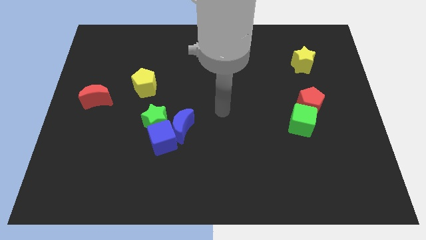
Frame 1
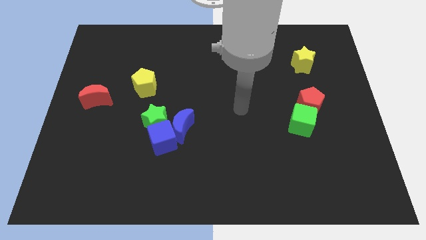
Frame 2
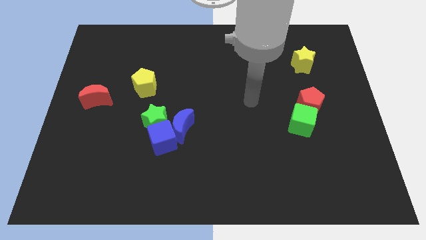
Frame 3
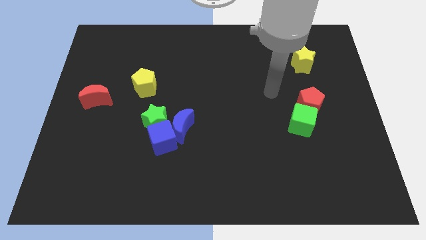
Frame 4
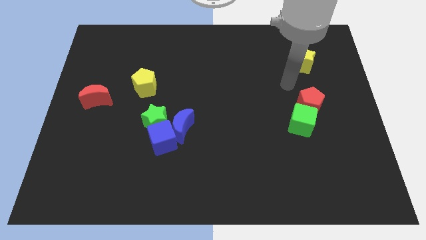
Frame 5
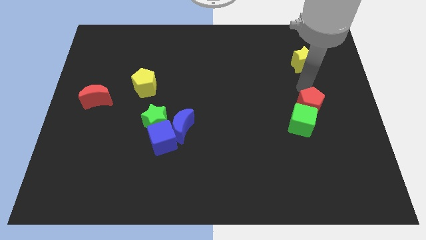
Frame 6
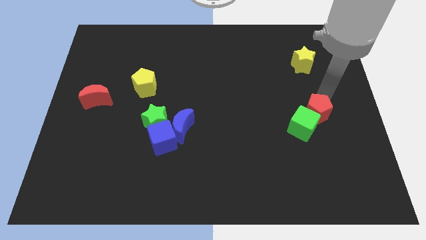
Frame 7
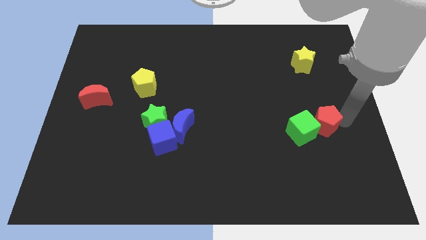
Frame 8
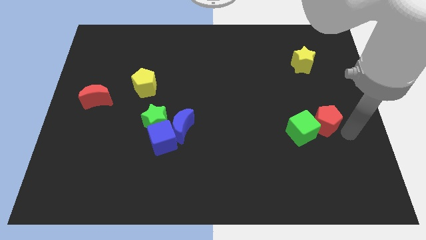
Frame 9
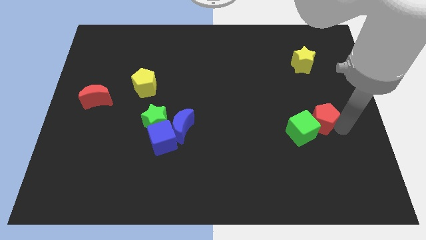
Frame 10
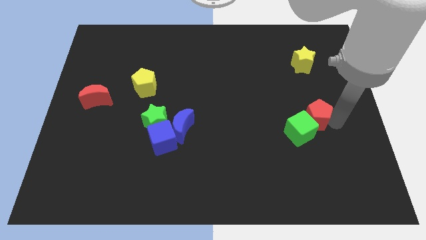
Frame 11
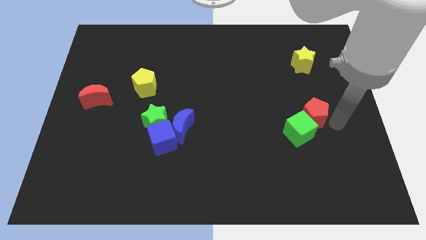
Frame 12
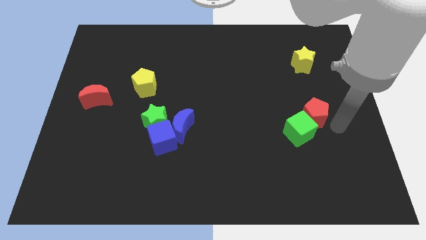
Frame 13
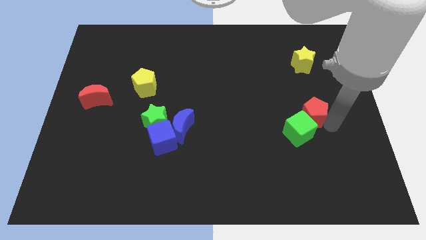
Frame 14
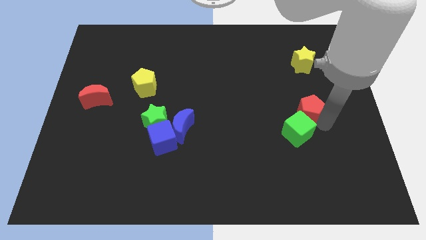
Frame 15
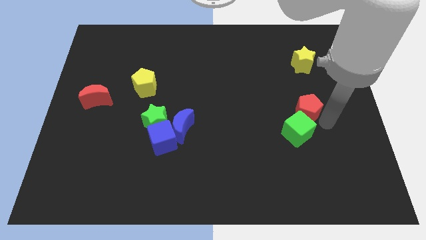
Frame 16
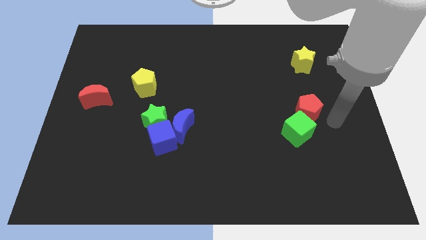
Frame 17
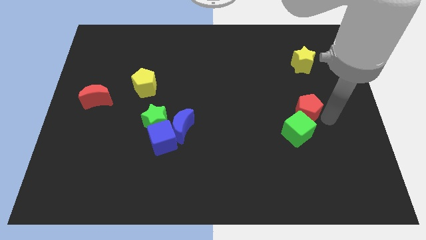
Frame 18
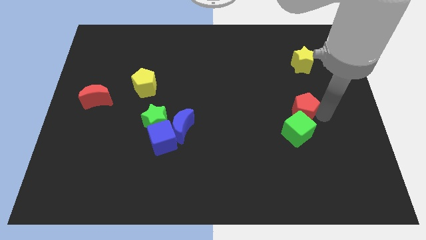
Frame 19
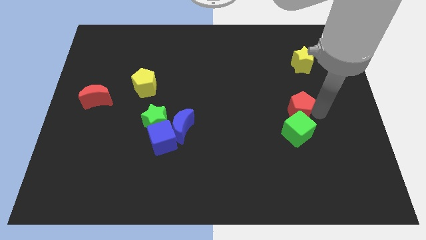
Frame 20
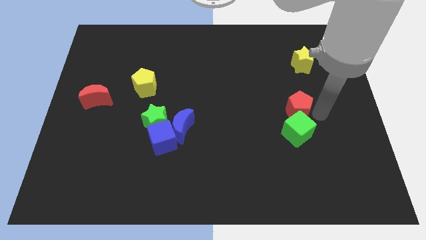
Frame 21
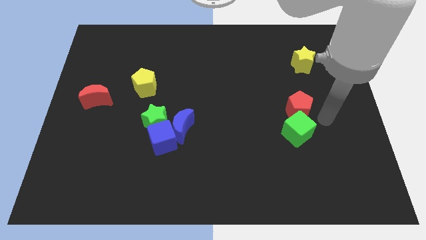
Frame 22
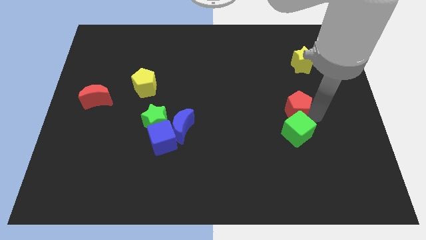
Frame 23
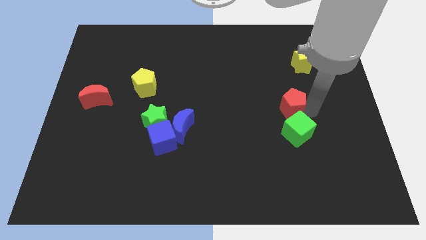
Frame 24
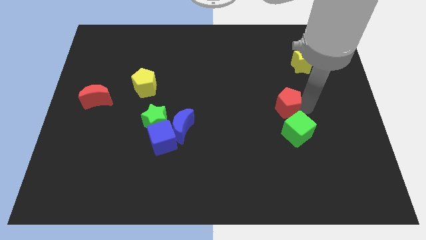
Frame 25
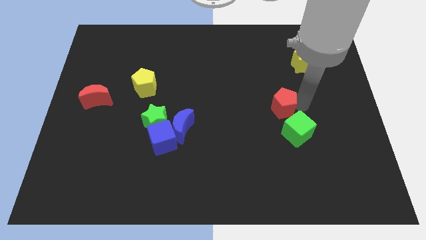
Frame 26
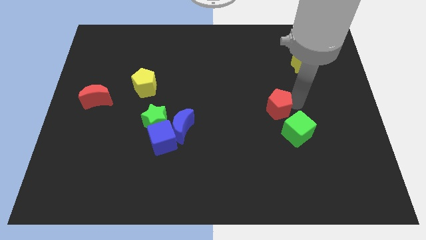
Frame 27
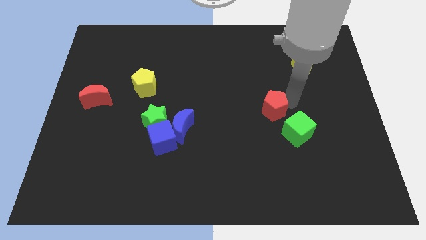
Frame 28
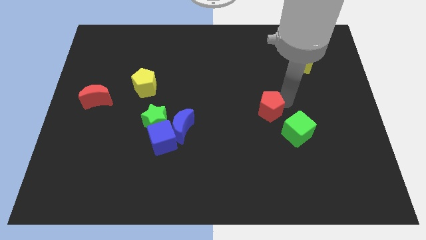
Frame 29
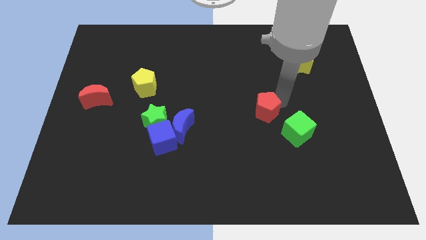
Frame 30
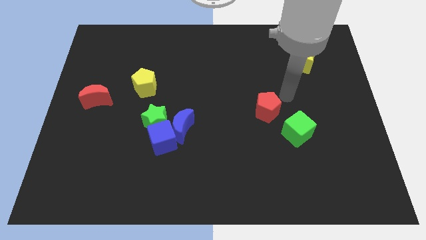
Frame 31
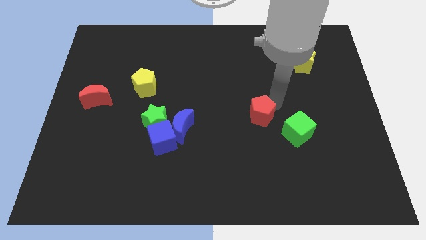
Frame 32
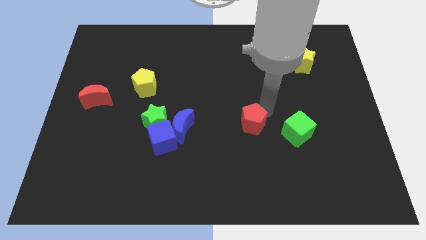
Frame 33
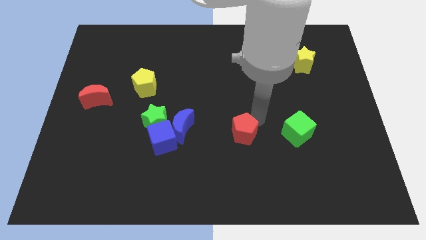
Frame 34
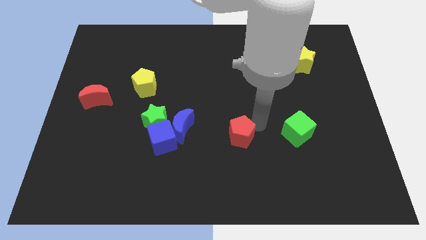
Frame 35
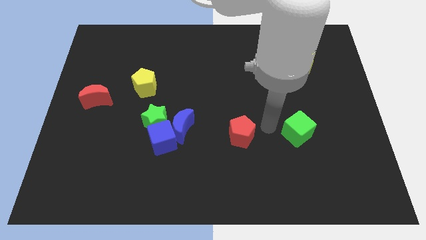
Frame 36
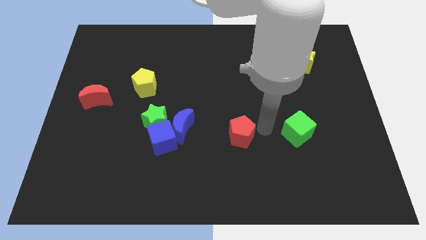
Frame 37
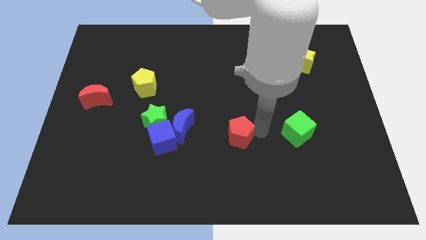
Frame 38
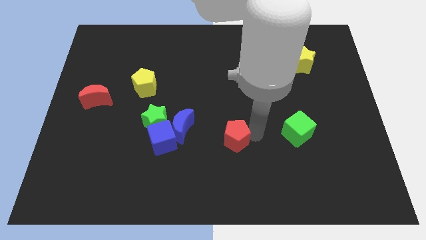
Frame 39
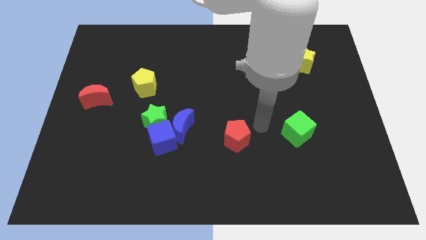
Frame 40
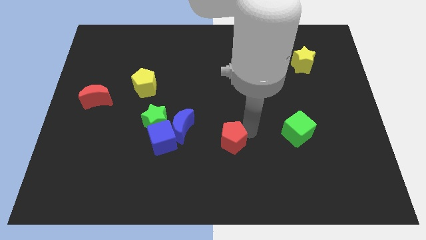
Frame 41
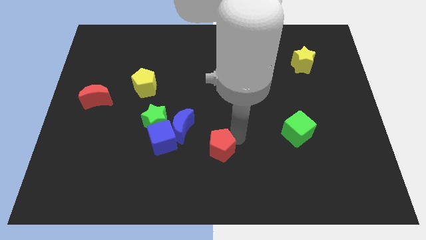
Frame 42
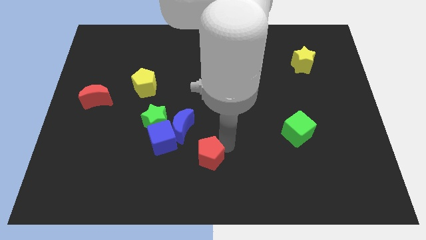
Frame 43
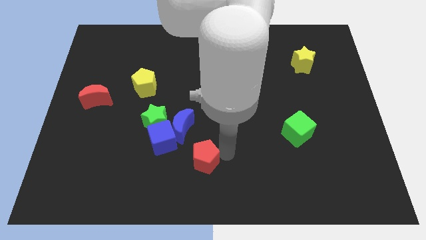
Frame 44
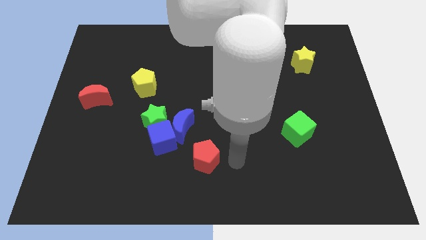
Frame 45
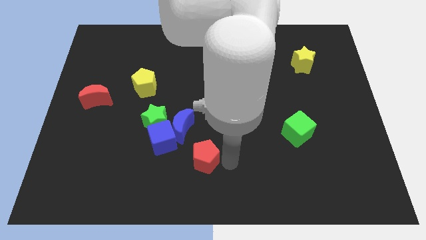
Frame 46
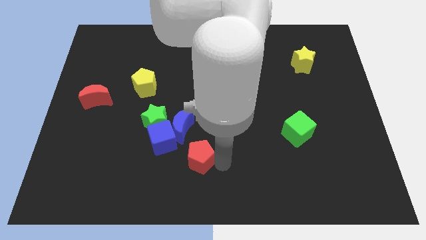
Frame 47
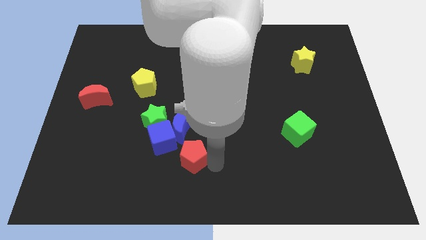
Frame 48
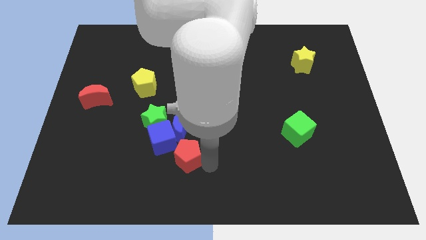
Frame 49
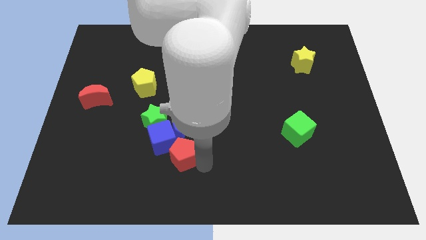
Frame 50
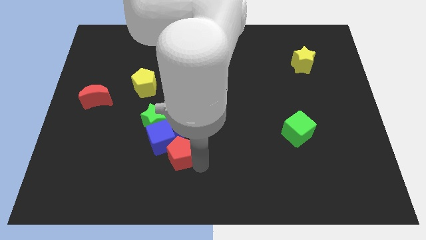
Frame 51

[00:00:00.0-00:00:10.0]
move the red pentagon to the blue cube

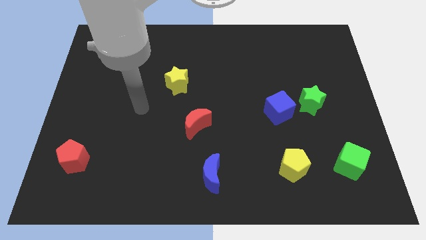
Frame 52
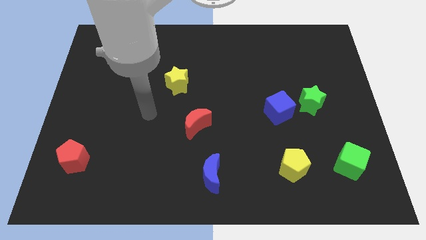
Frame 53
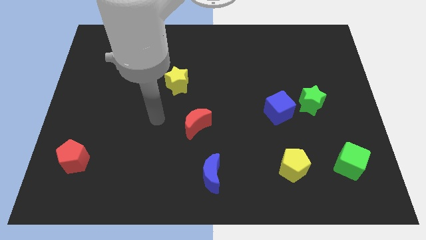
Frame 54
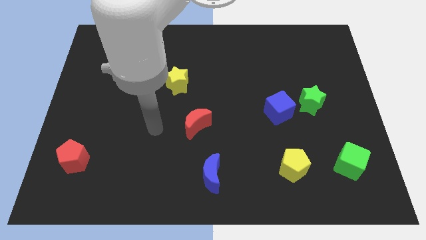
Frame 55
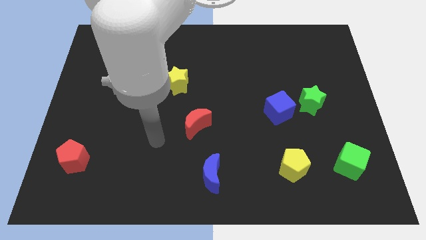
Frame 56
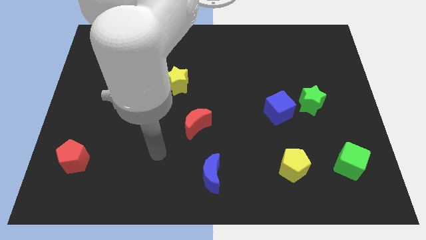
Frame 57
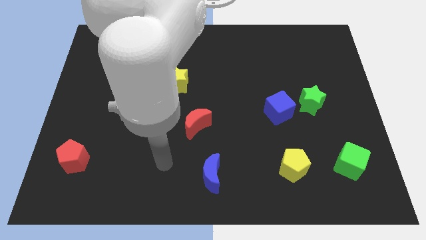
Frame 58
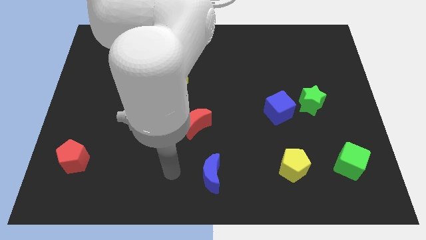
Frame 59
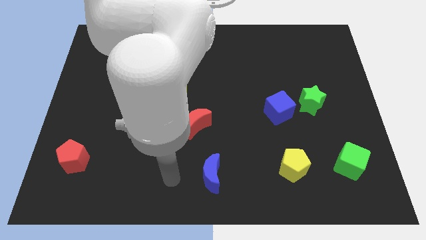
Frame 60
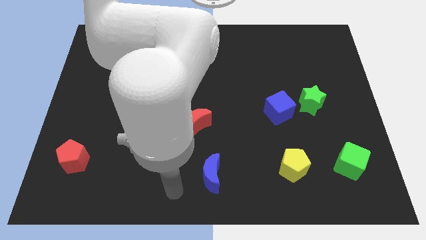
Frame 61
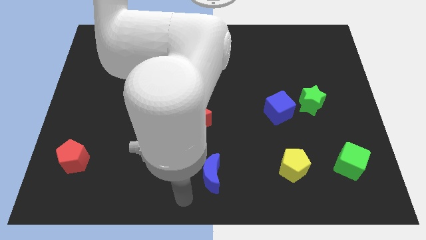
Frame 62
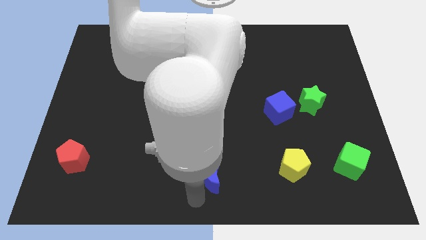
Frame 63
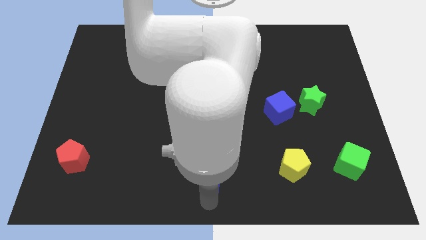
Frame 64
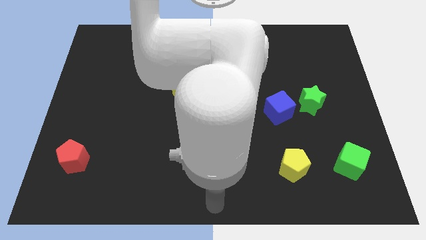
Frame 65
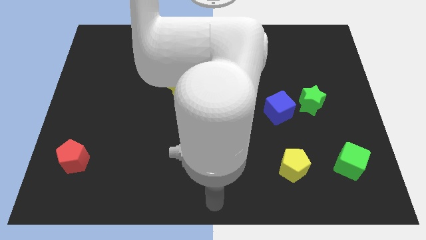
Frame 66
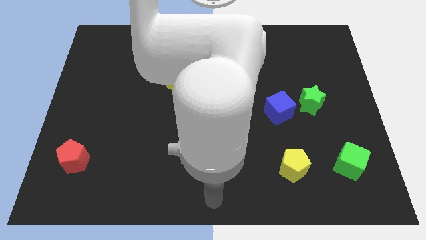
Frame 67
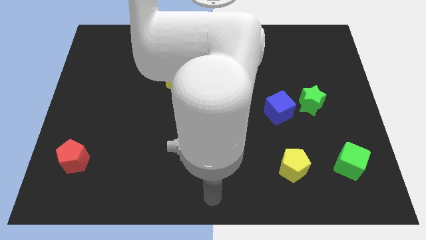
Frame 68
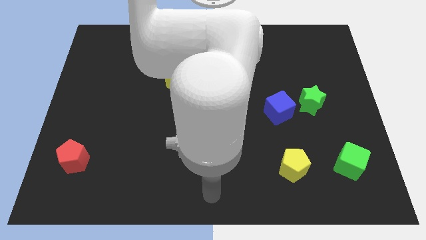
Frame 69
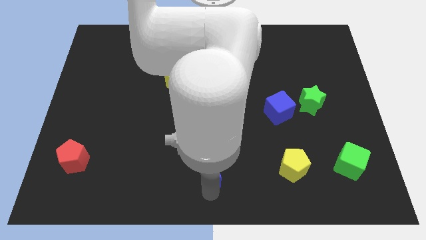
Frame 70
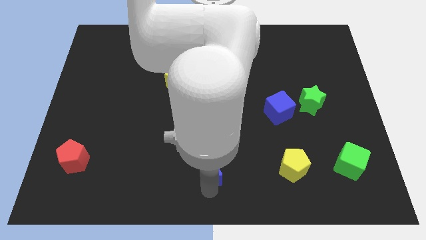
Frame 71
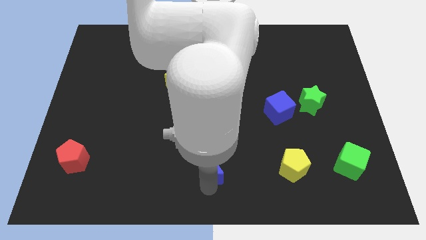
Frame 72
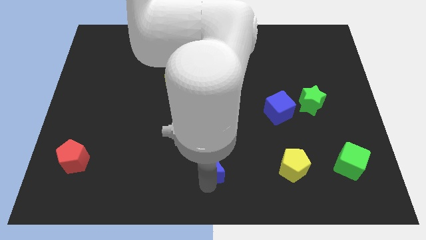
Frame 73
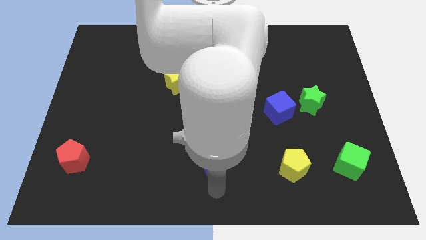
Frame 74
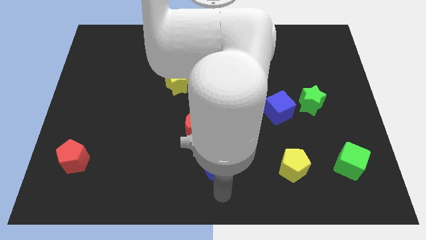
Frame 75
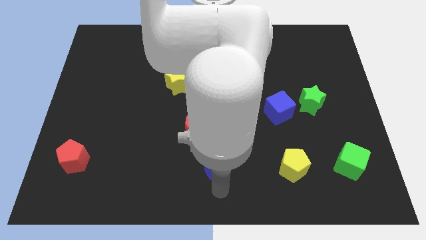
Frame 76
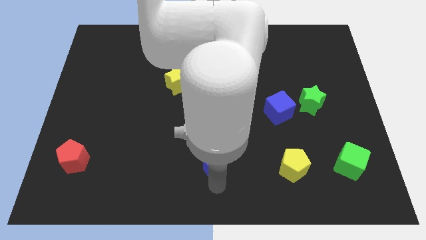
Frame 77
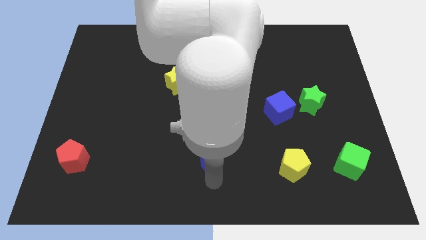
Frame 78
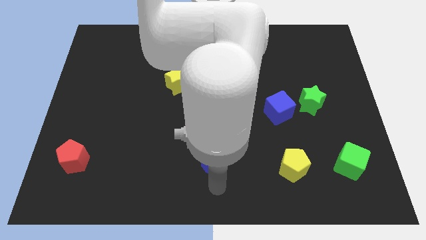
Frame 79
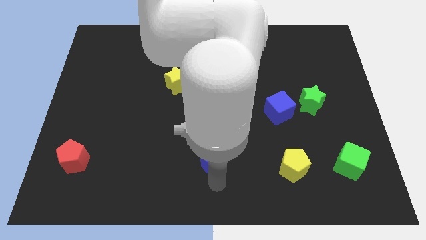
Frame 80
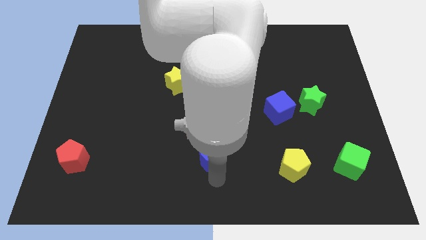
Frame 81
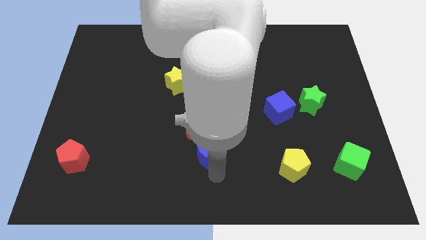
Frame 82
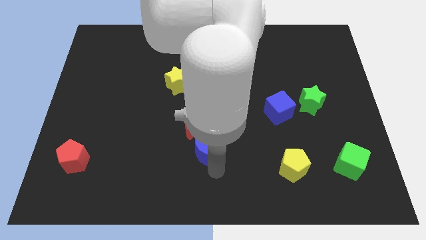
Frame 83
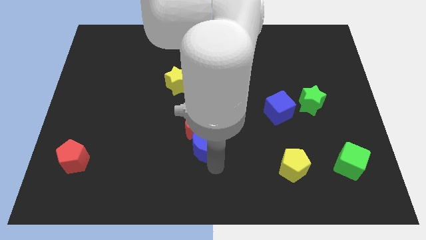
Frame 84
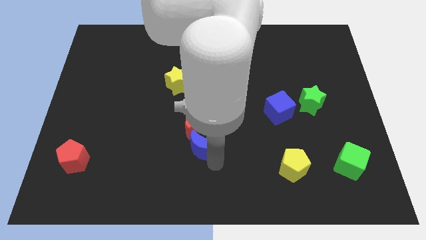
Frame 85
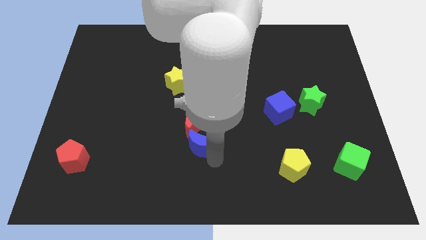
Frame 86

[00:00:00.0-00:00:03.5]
put the blue moon towards the red moon
